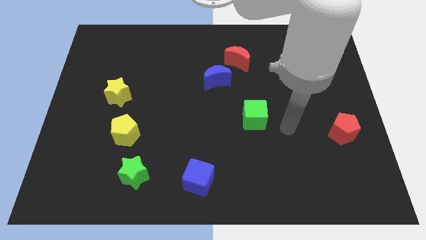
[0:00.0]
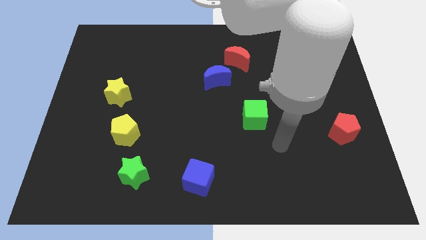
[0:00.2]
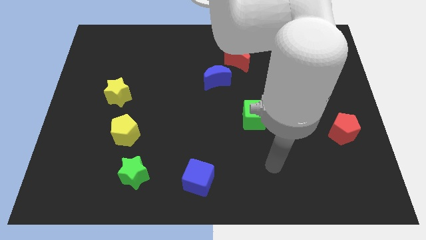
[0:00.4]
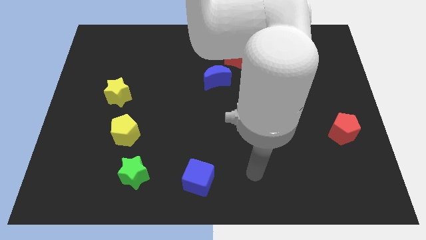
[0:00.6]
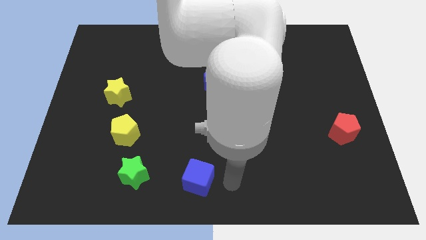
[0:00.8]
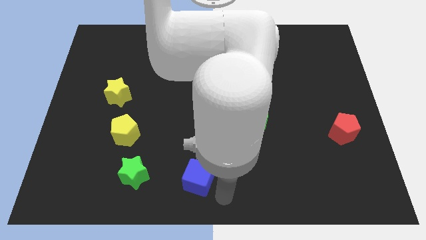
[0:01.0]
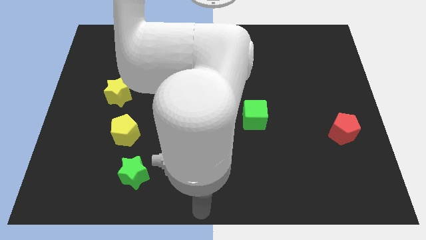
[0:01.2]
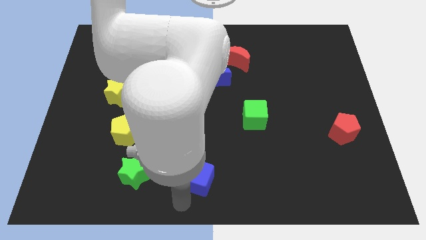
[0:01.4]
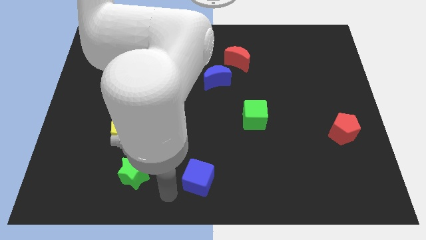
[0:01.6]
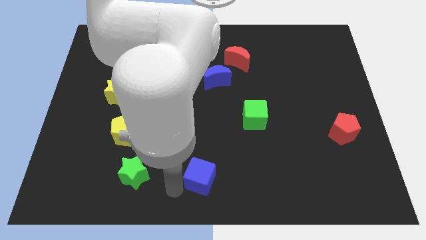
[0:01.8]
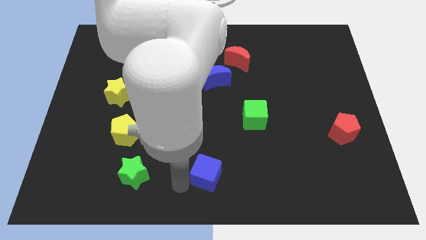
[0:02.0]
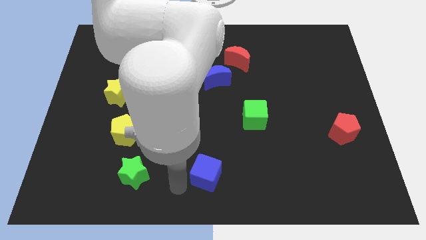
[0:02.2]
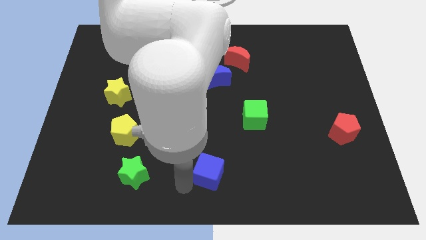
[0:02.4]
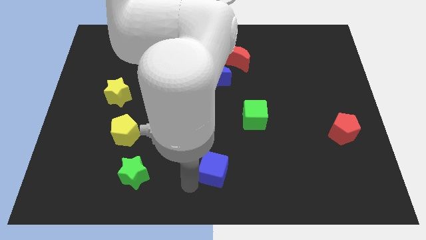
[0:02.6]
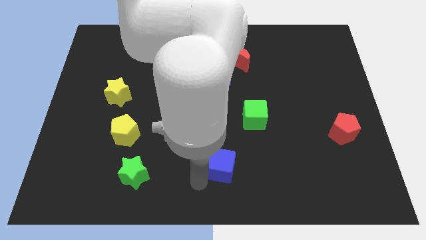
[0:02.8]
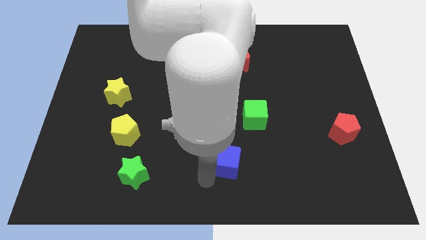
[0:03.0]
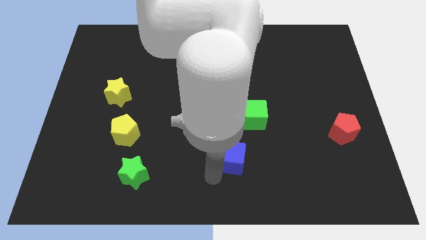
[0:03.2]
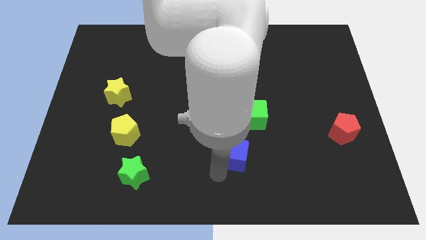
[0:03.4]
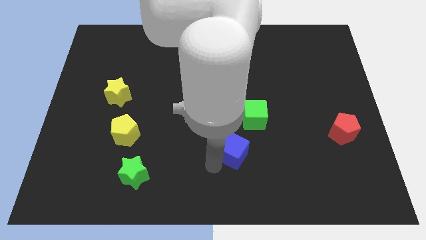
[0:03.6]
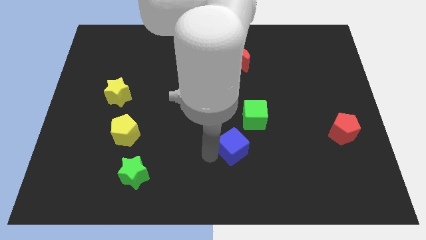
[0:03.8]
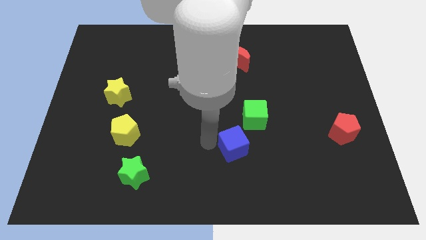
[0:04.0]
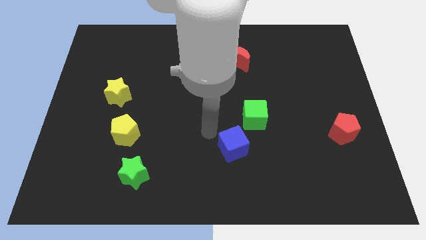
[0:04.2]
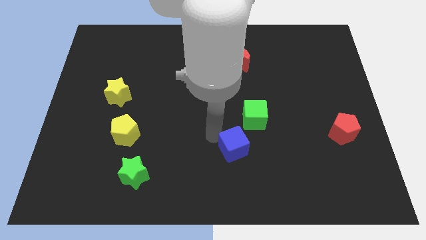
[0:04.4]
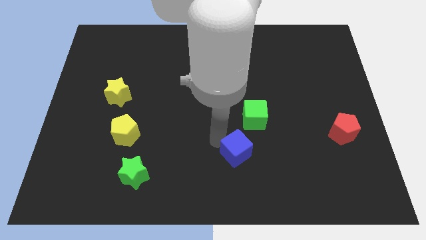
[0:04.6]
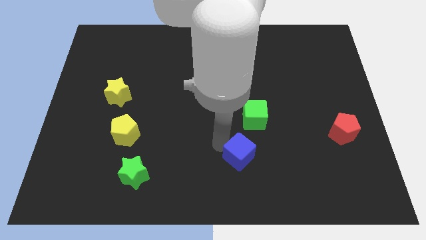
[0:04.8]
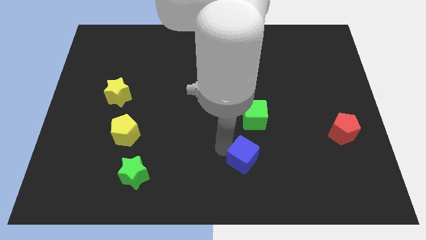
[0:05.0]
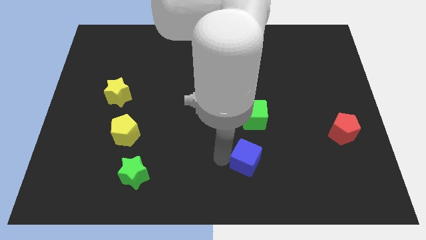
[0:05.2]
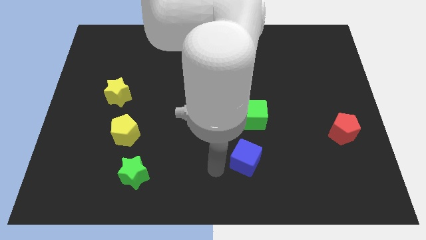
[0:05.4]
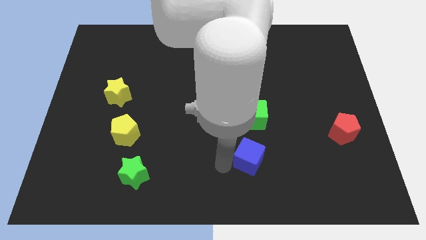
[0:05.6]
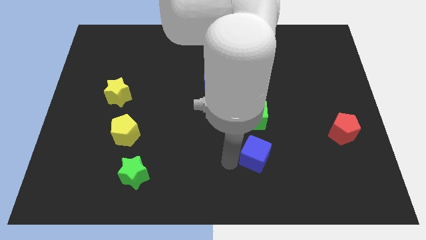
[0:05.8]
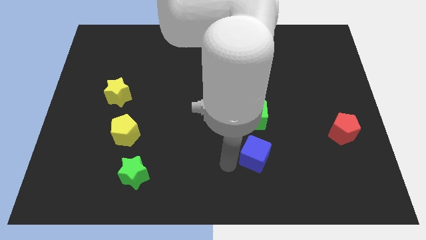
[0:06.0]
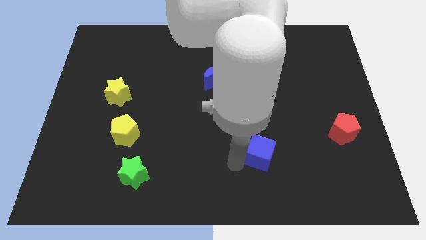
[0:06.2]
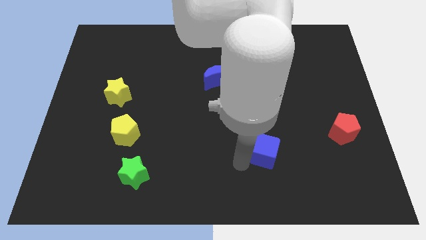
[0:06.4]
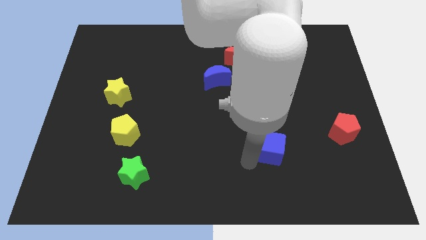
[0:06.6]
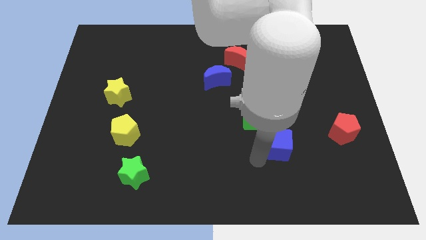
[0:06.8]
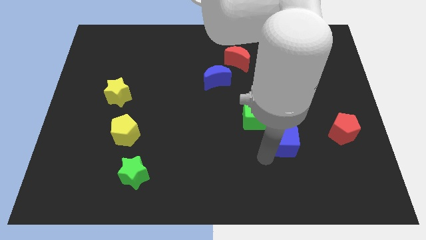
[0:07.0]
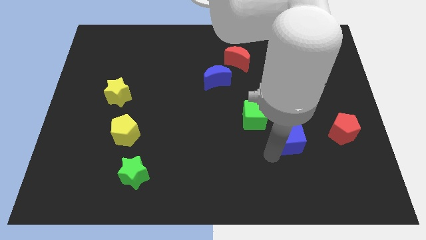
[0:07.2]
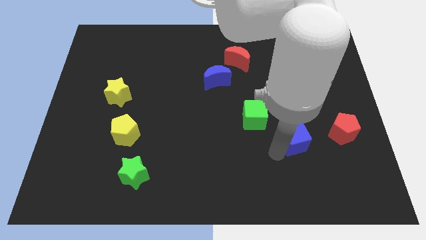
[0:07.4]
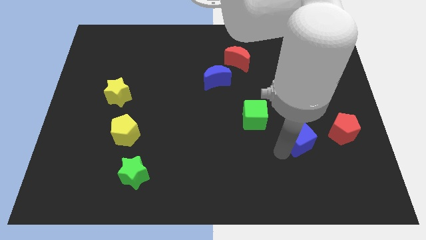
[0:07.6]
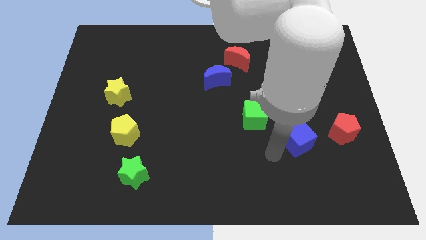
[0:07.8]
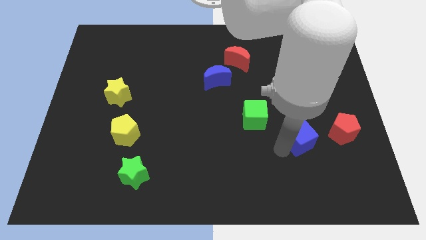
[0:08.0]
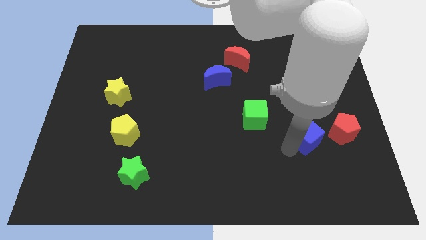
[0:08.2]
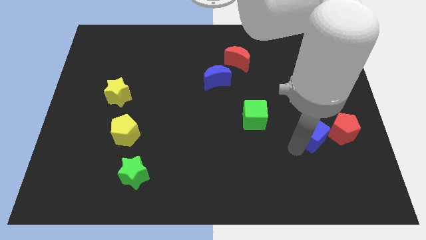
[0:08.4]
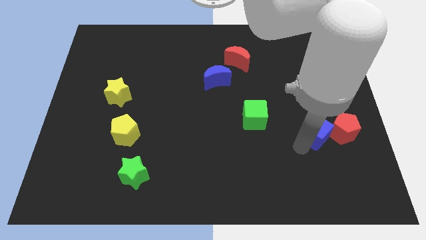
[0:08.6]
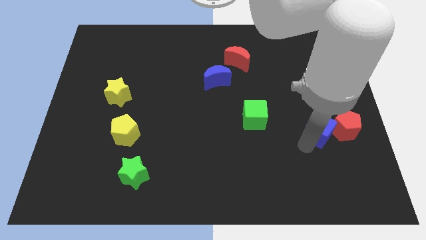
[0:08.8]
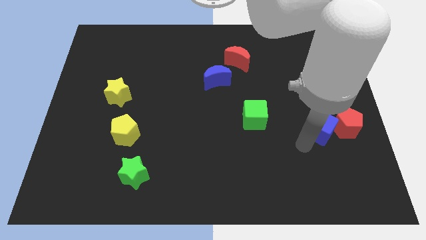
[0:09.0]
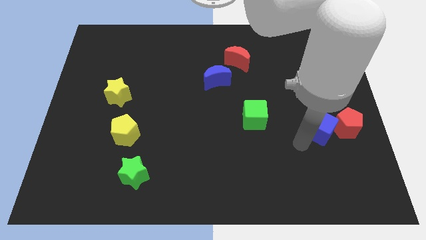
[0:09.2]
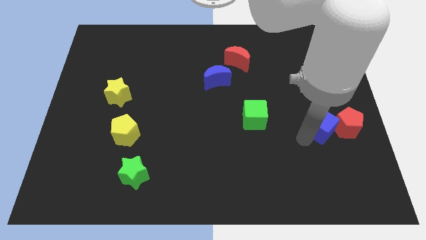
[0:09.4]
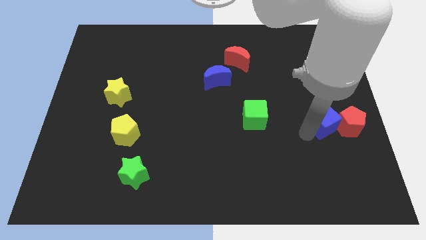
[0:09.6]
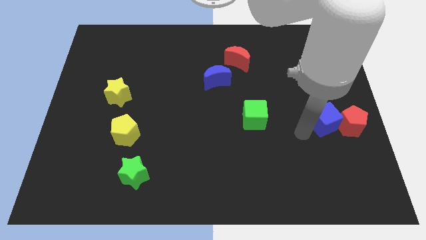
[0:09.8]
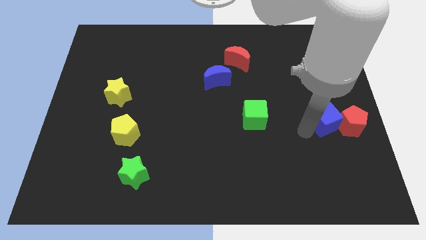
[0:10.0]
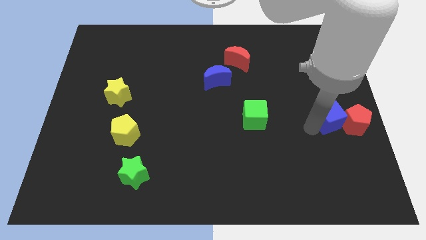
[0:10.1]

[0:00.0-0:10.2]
slide the blue cube to the right side of the board

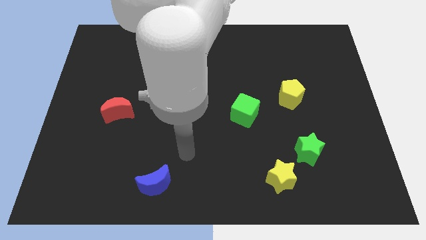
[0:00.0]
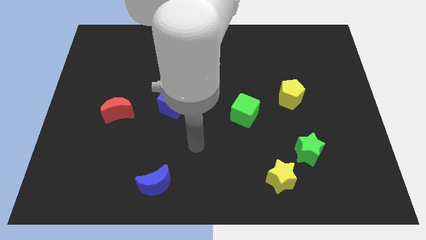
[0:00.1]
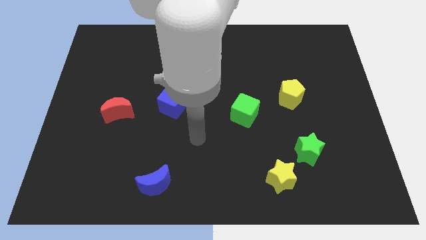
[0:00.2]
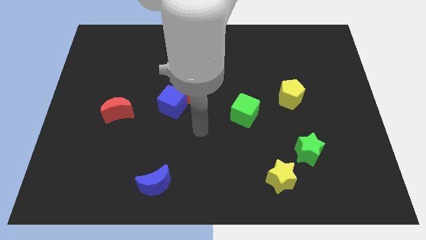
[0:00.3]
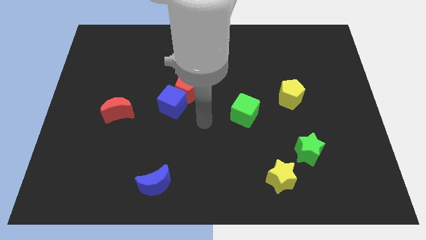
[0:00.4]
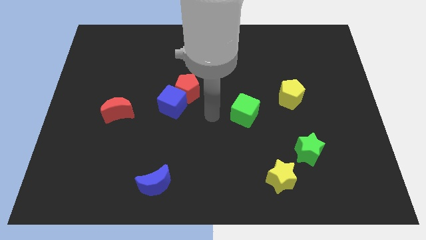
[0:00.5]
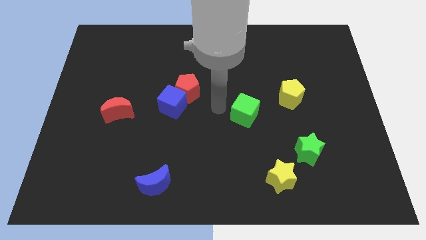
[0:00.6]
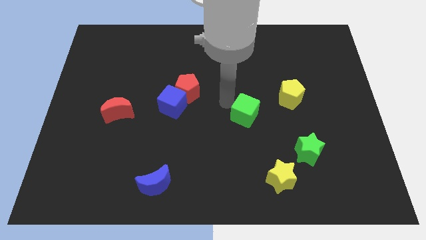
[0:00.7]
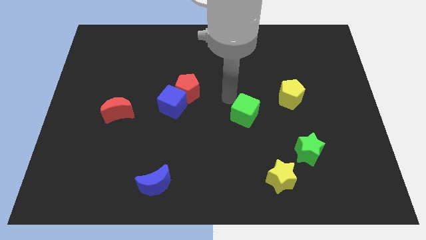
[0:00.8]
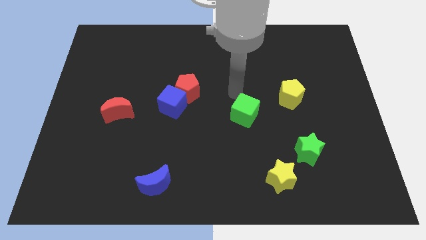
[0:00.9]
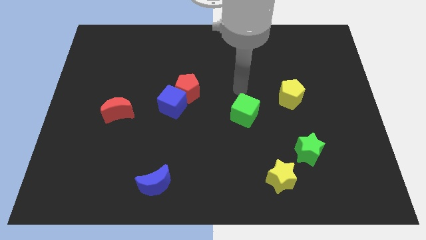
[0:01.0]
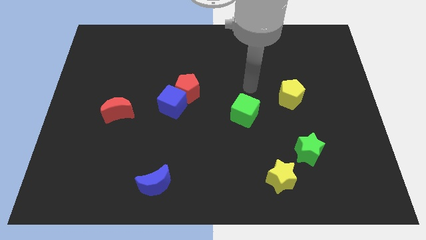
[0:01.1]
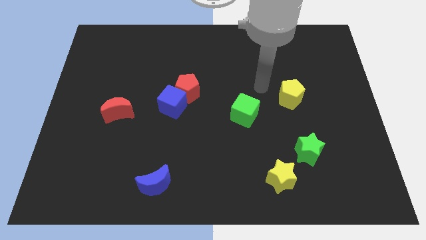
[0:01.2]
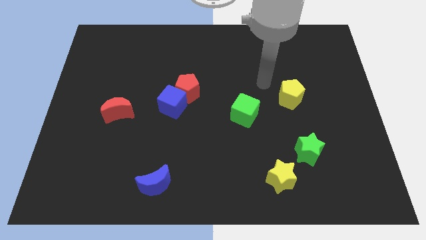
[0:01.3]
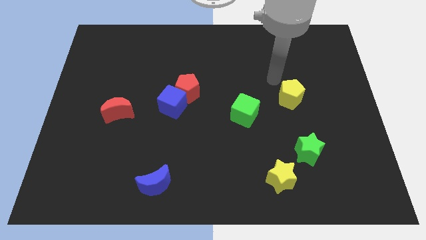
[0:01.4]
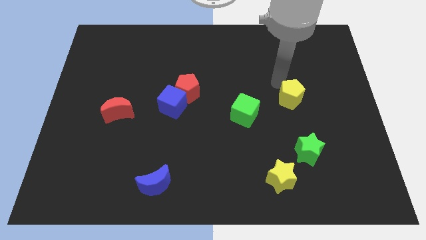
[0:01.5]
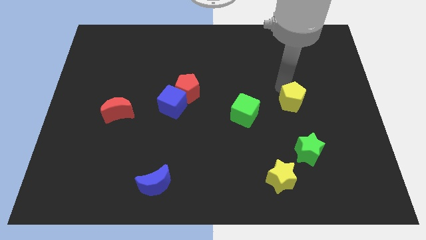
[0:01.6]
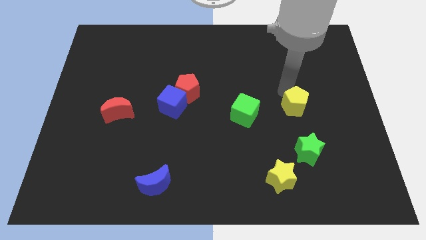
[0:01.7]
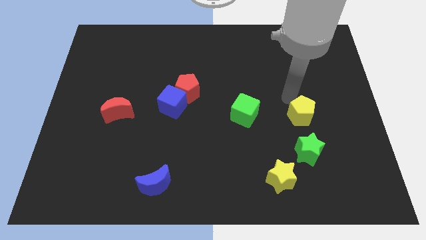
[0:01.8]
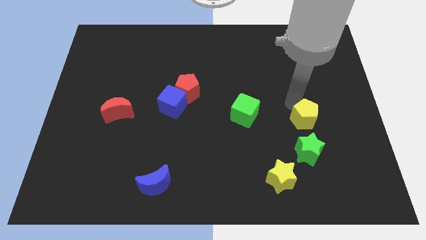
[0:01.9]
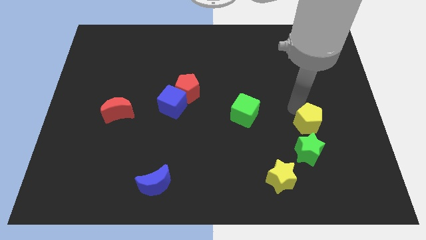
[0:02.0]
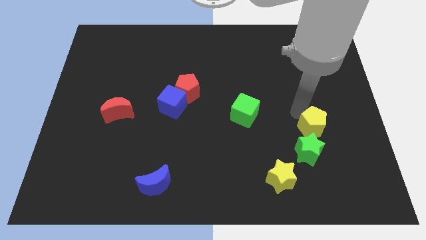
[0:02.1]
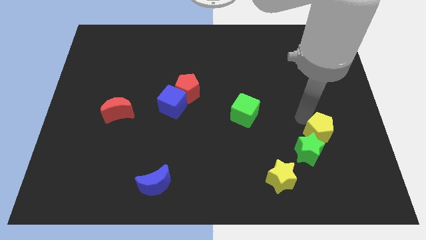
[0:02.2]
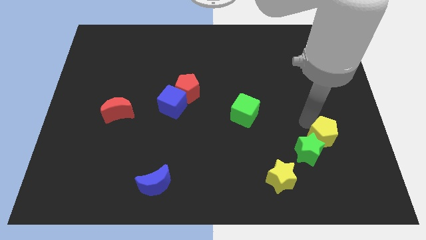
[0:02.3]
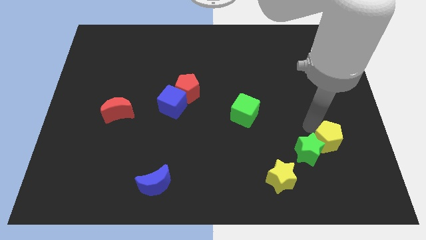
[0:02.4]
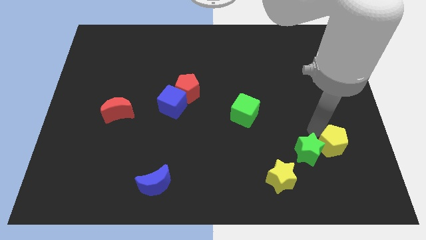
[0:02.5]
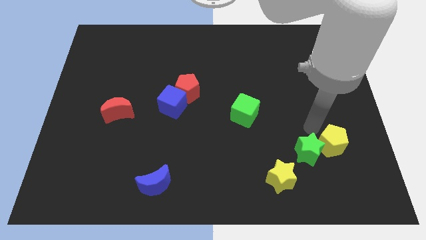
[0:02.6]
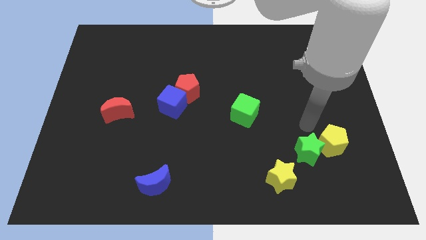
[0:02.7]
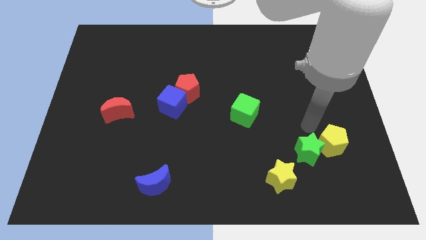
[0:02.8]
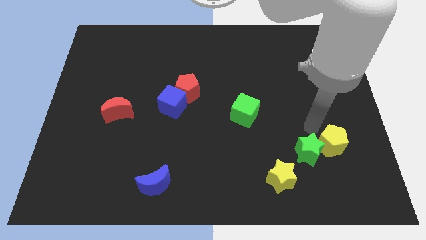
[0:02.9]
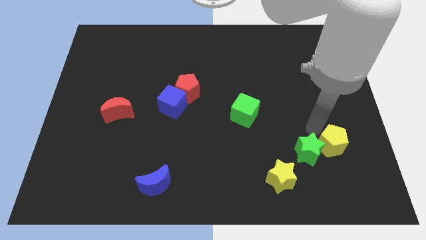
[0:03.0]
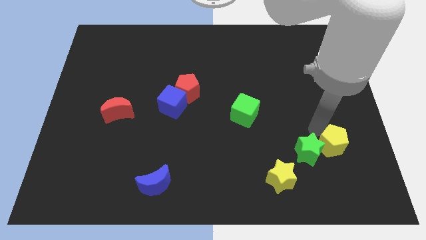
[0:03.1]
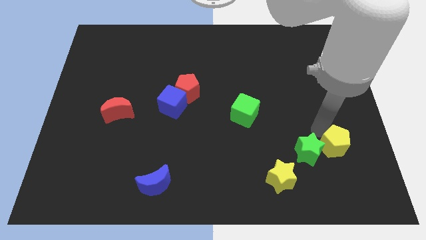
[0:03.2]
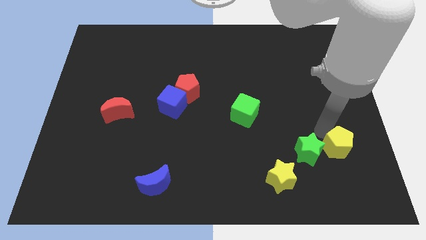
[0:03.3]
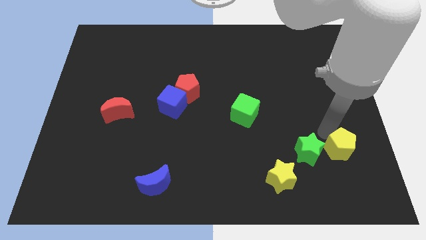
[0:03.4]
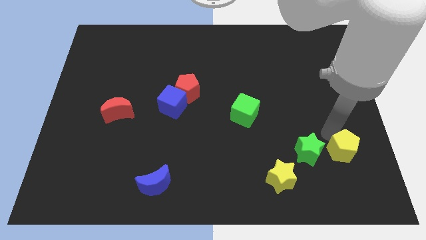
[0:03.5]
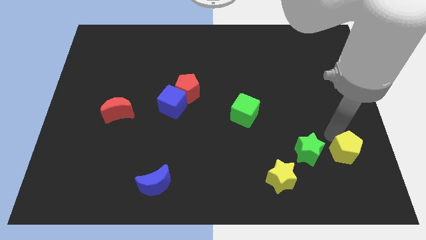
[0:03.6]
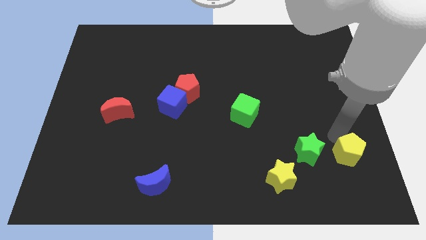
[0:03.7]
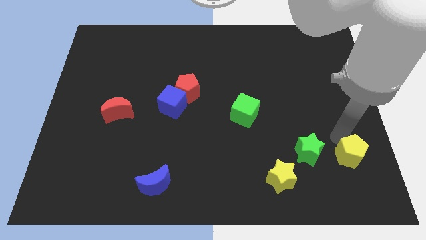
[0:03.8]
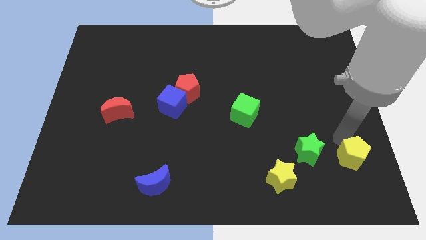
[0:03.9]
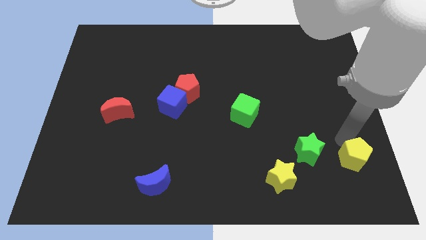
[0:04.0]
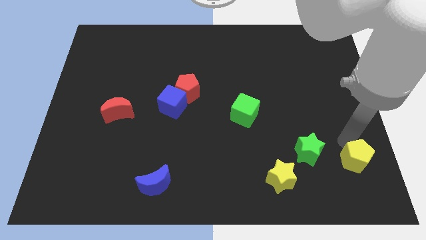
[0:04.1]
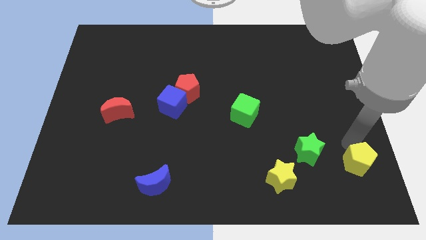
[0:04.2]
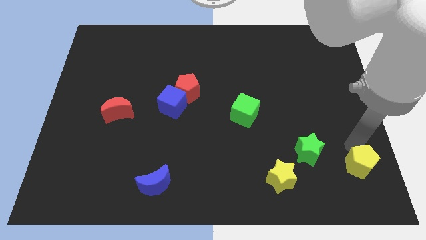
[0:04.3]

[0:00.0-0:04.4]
push the yellow pentagon to the bottom right
